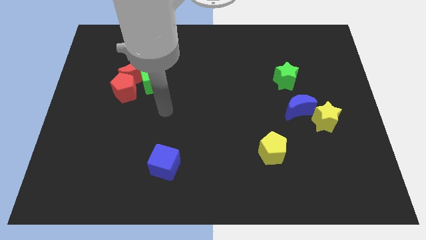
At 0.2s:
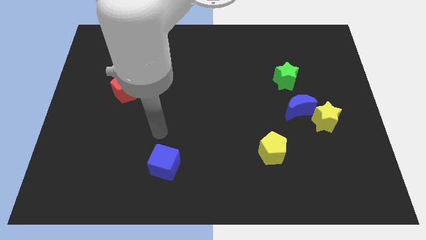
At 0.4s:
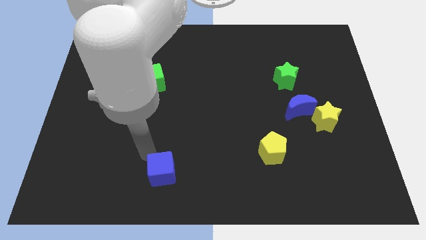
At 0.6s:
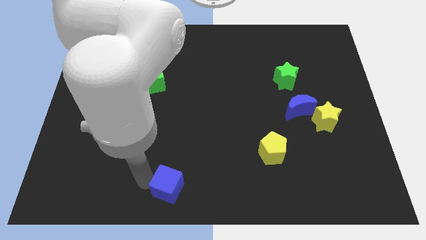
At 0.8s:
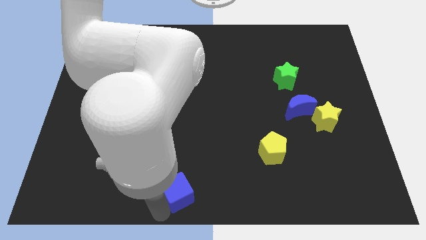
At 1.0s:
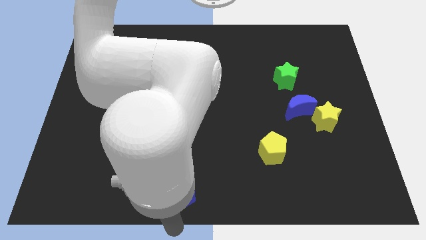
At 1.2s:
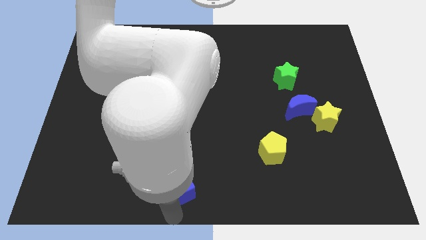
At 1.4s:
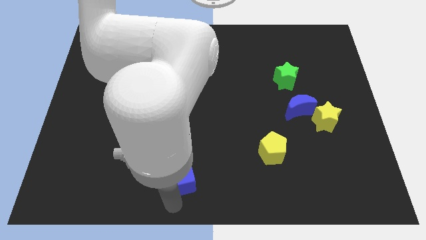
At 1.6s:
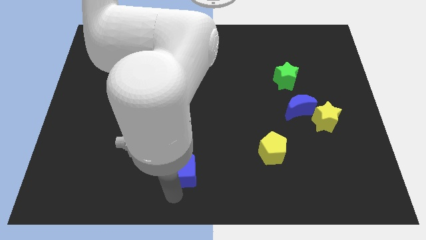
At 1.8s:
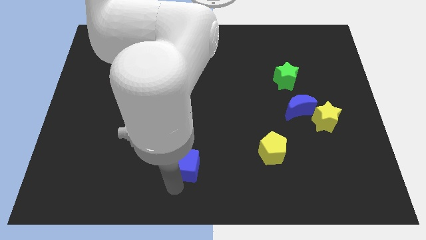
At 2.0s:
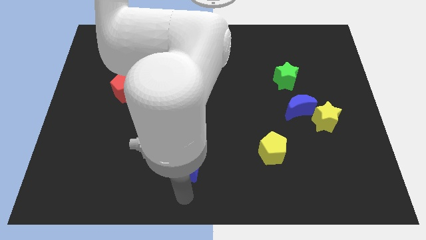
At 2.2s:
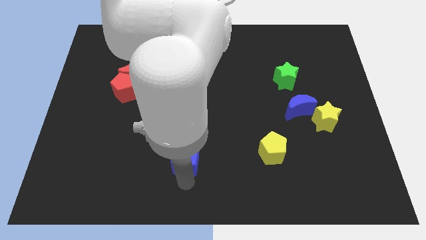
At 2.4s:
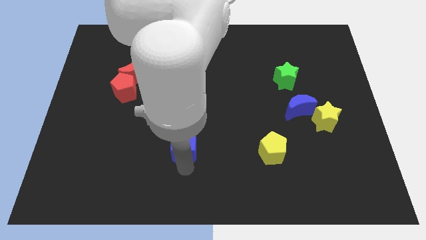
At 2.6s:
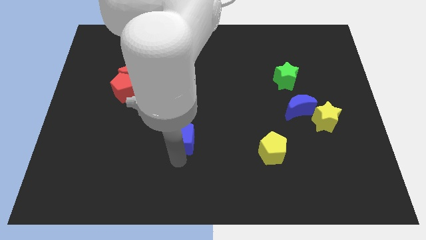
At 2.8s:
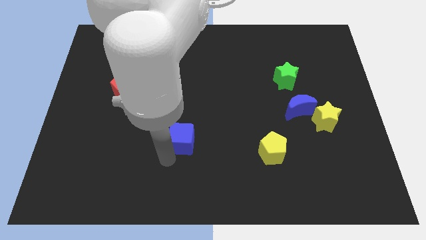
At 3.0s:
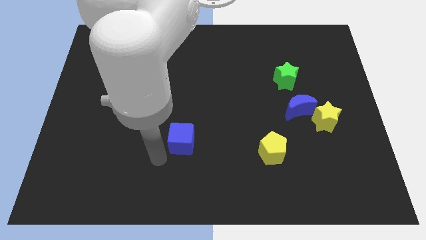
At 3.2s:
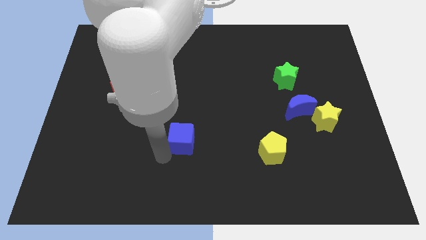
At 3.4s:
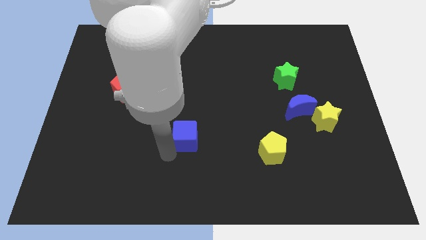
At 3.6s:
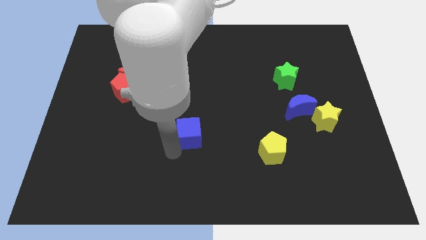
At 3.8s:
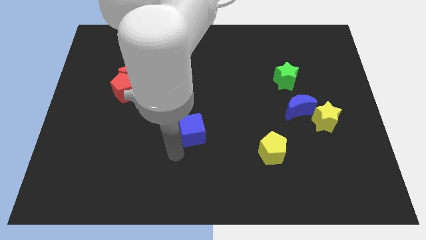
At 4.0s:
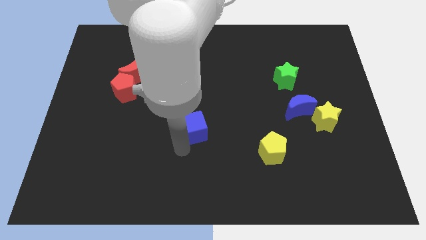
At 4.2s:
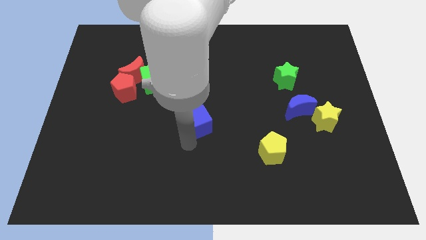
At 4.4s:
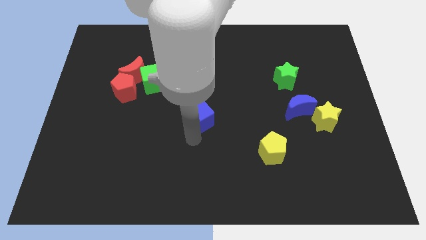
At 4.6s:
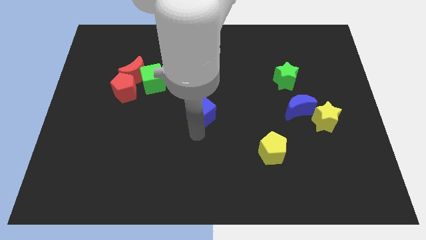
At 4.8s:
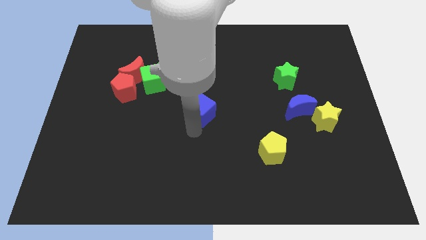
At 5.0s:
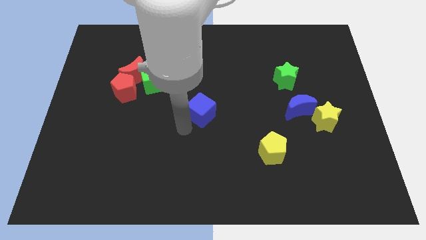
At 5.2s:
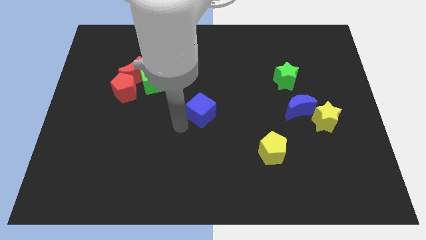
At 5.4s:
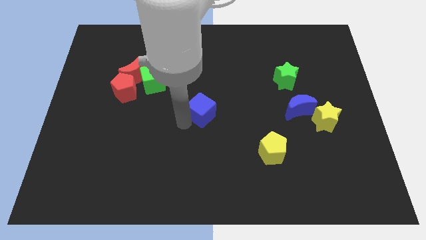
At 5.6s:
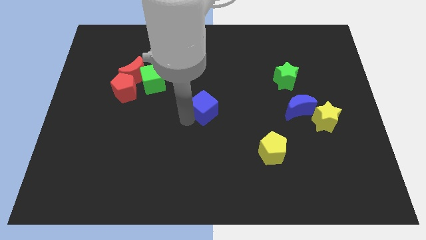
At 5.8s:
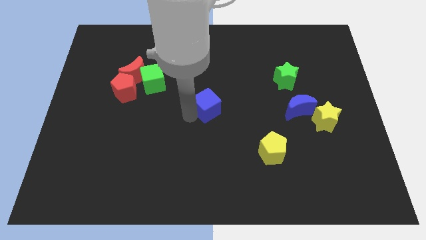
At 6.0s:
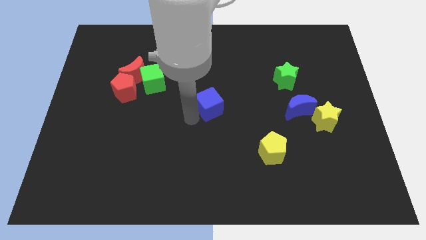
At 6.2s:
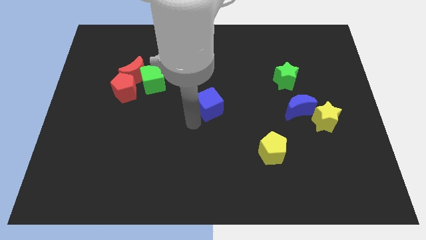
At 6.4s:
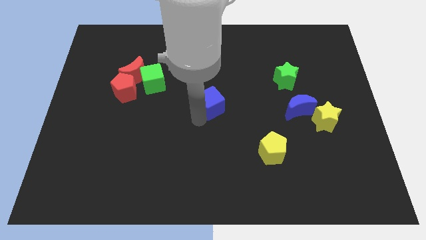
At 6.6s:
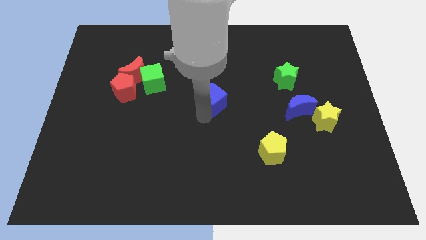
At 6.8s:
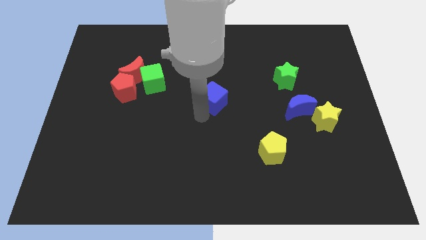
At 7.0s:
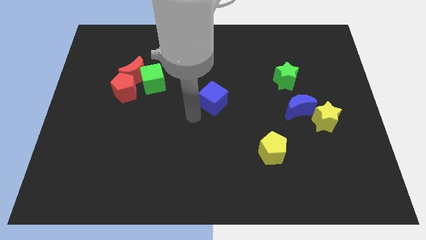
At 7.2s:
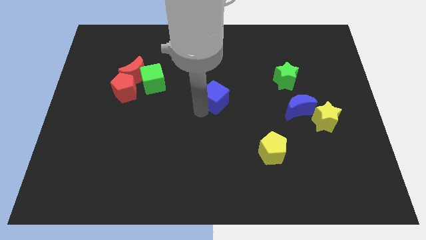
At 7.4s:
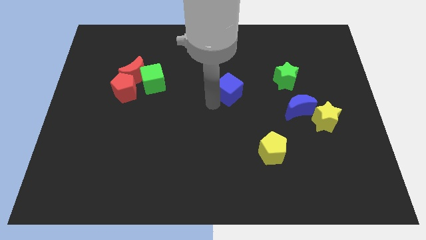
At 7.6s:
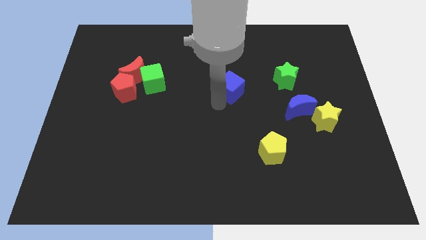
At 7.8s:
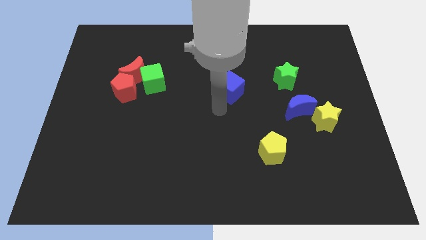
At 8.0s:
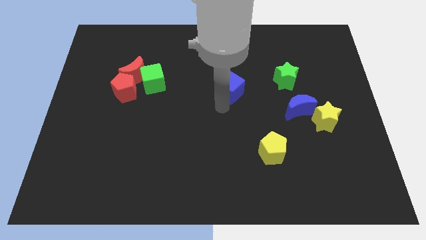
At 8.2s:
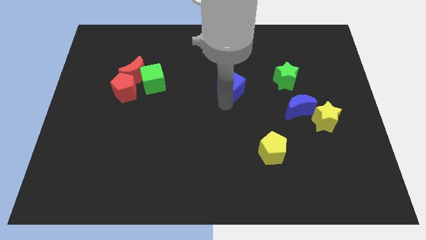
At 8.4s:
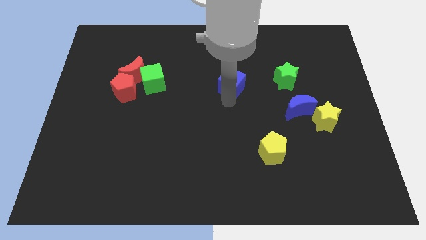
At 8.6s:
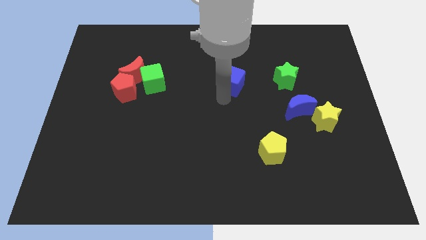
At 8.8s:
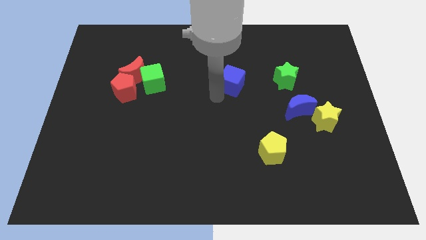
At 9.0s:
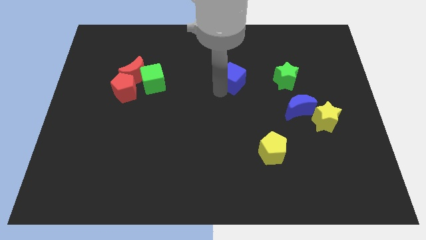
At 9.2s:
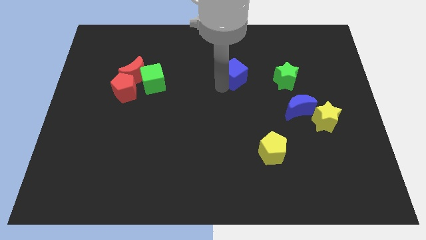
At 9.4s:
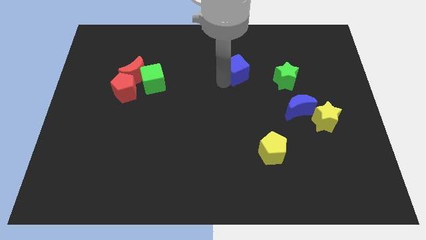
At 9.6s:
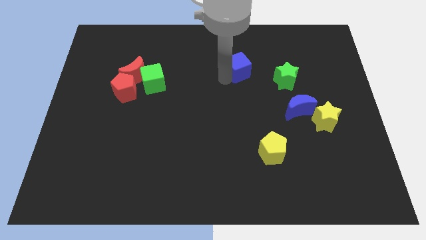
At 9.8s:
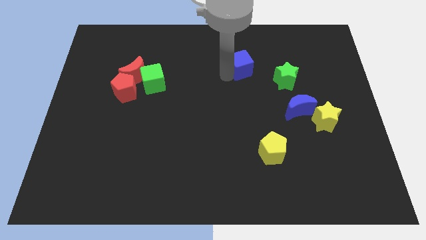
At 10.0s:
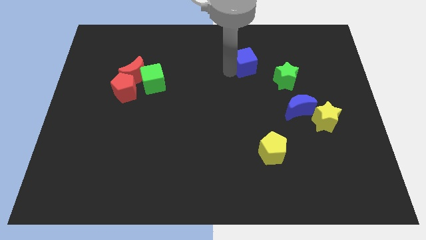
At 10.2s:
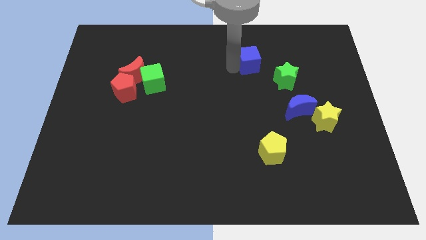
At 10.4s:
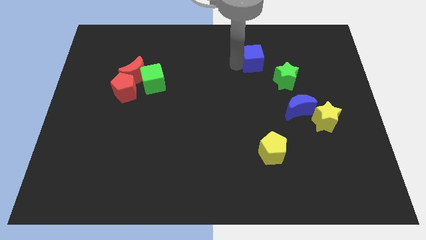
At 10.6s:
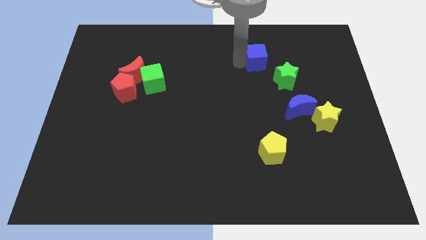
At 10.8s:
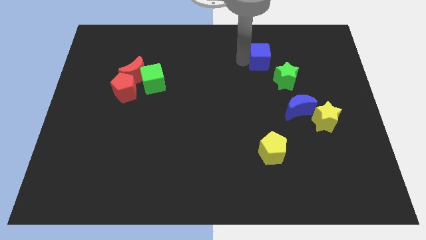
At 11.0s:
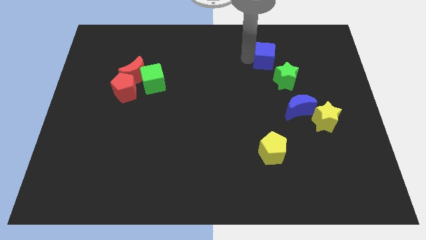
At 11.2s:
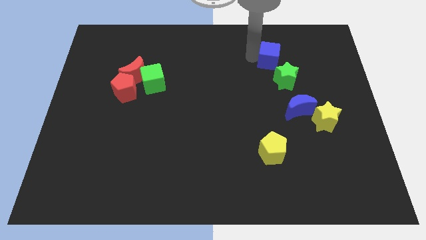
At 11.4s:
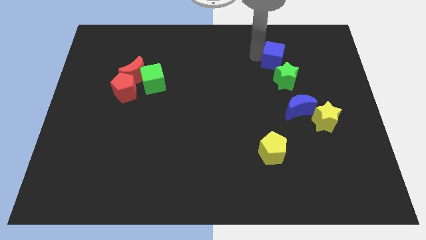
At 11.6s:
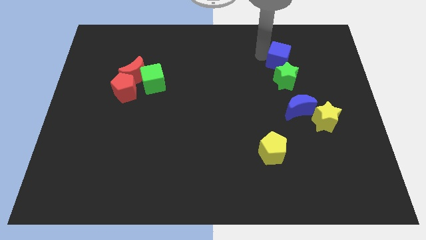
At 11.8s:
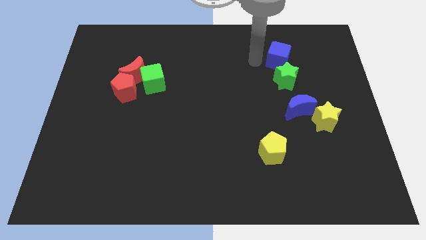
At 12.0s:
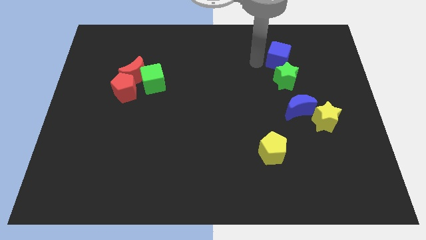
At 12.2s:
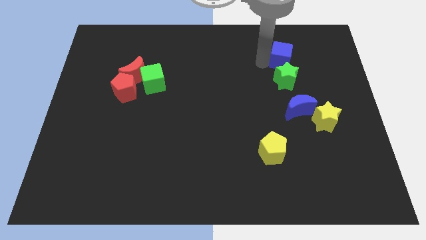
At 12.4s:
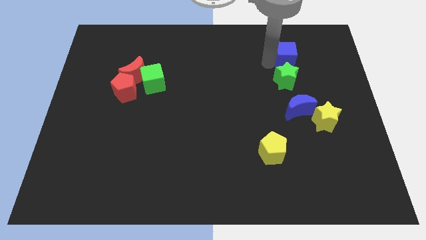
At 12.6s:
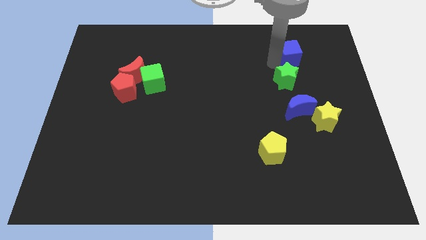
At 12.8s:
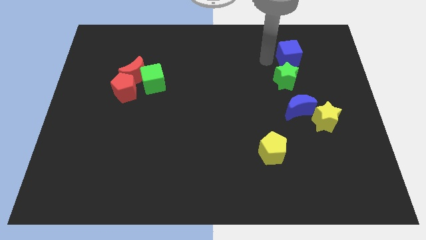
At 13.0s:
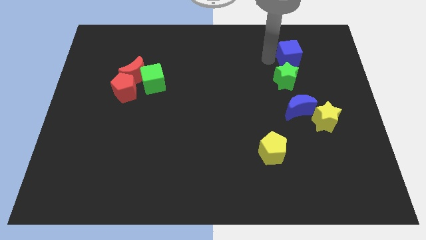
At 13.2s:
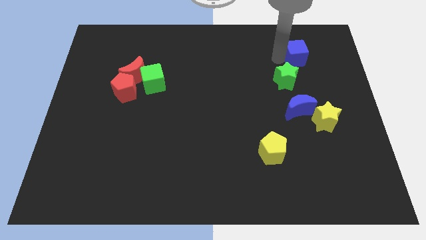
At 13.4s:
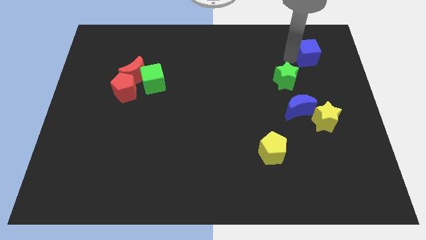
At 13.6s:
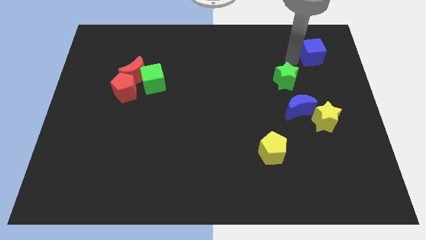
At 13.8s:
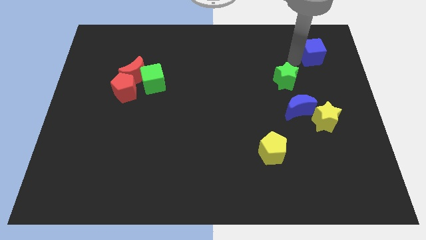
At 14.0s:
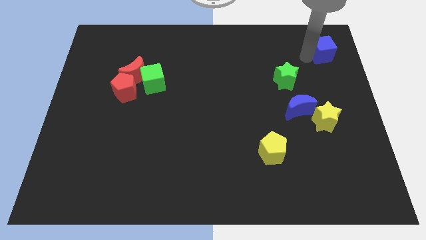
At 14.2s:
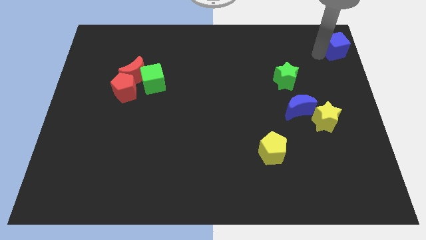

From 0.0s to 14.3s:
move the blue cube to the top right corner

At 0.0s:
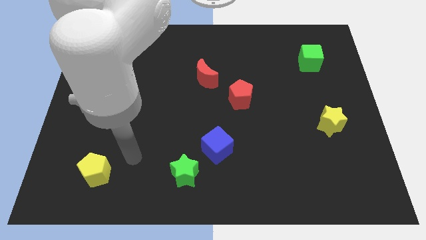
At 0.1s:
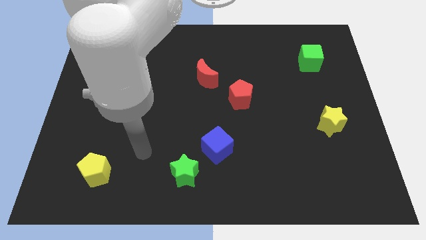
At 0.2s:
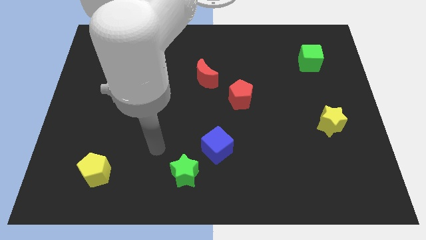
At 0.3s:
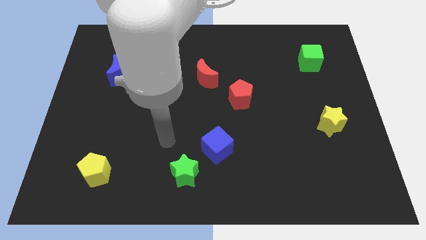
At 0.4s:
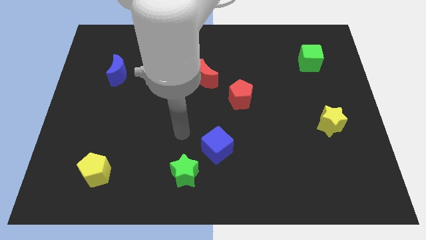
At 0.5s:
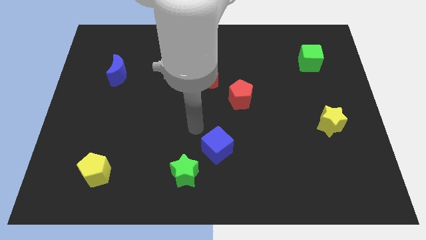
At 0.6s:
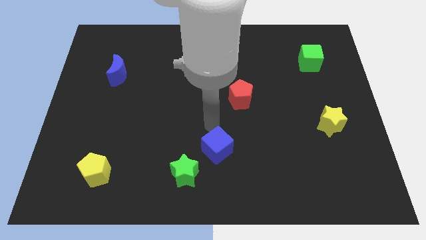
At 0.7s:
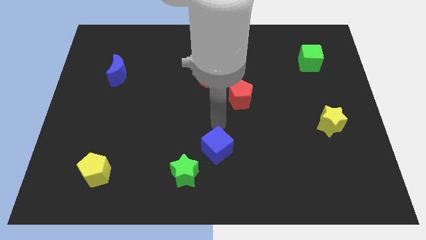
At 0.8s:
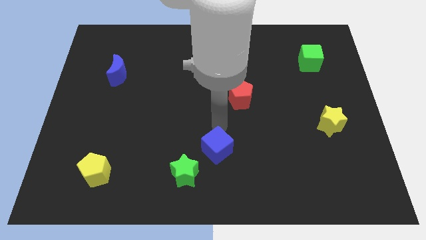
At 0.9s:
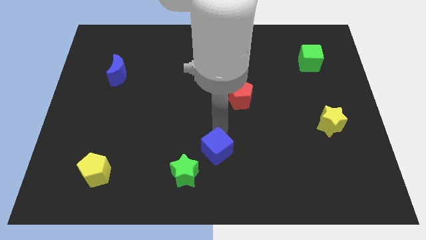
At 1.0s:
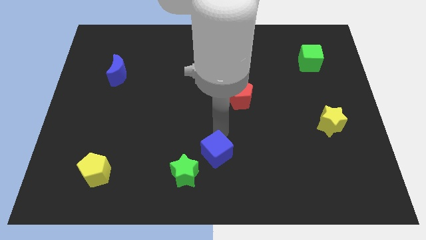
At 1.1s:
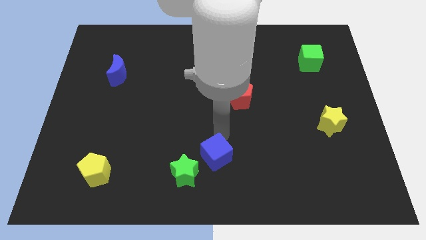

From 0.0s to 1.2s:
slide the blue cube to the bottom side
